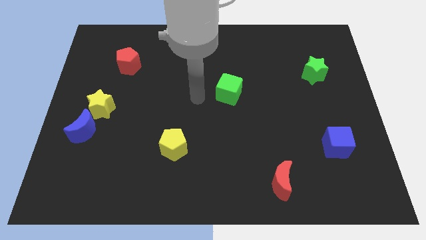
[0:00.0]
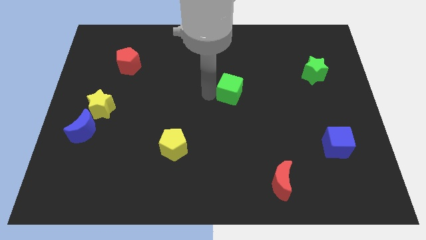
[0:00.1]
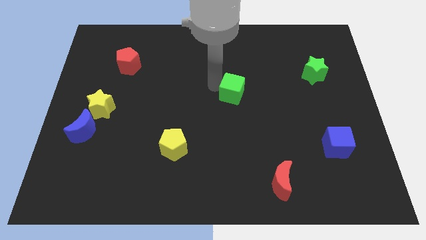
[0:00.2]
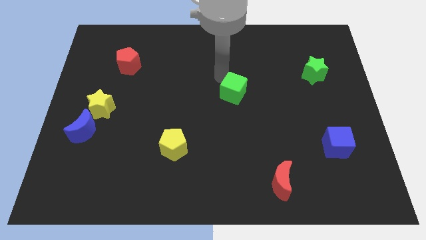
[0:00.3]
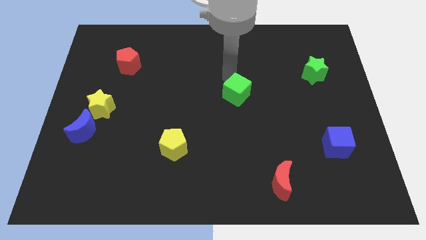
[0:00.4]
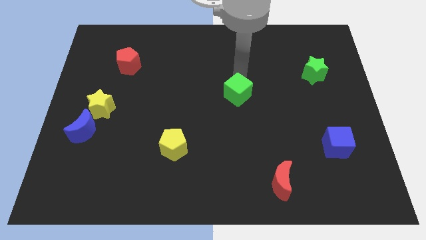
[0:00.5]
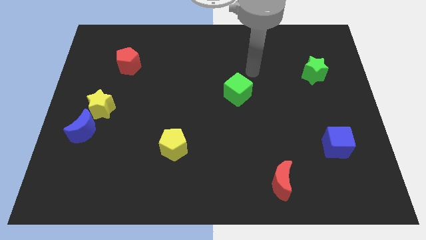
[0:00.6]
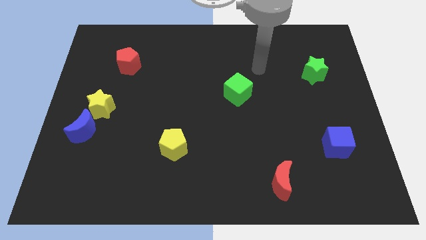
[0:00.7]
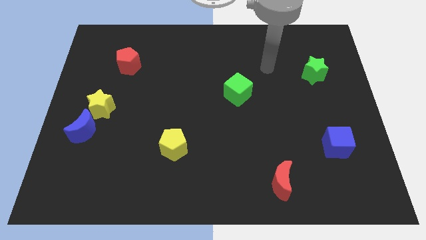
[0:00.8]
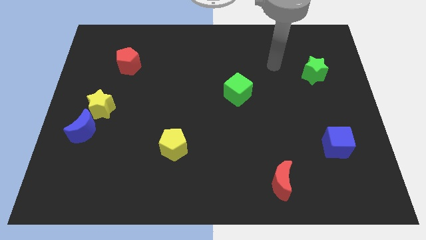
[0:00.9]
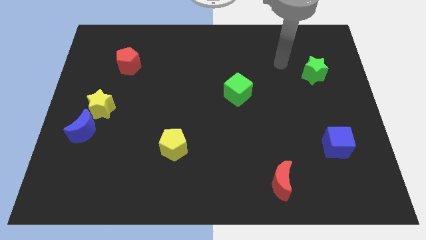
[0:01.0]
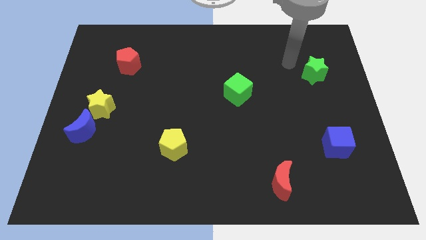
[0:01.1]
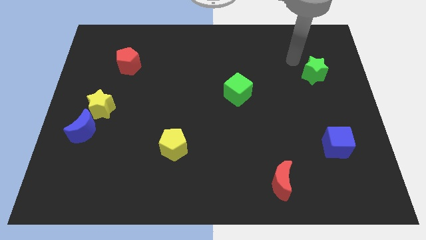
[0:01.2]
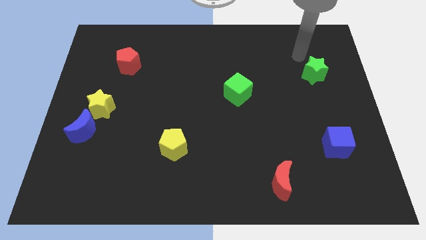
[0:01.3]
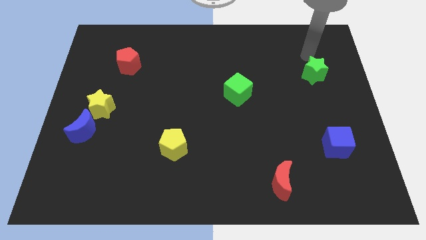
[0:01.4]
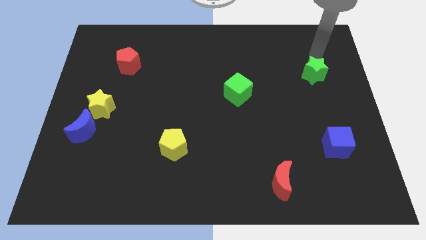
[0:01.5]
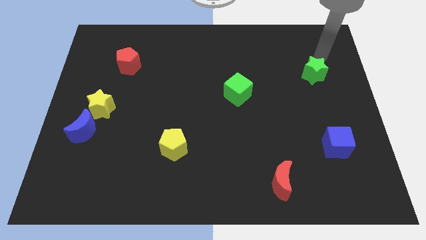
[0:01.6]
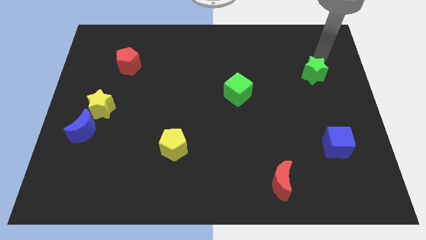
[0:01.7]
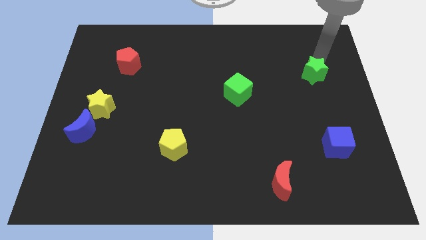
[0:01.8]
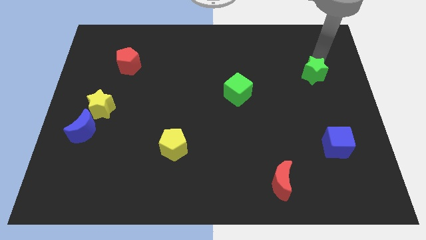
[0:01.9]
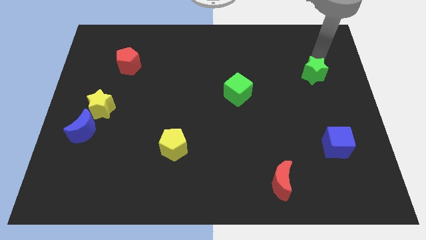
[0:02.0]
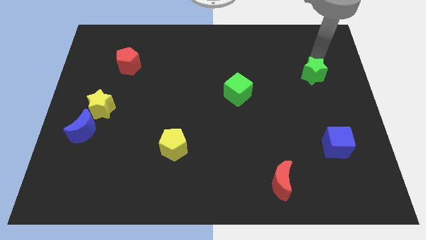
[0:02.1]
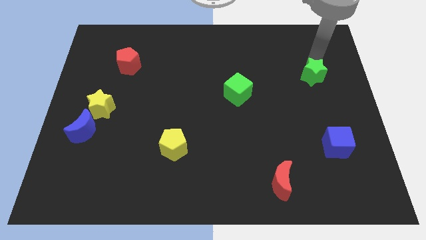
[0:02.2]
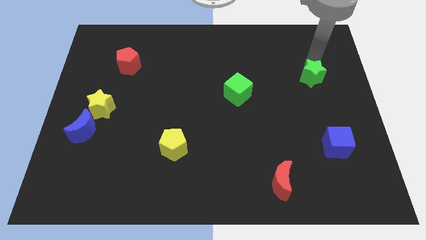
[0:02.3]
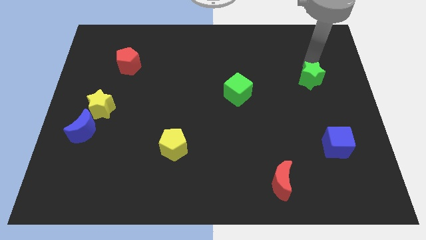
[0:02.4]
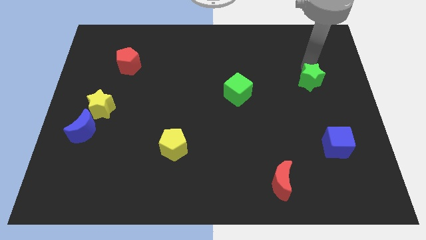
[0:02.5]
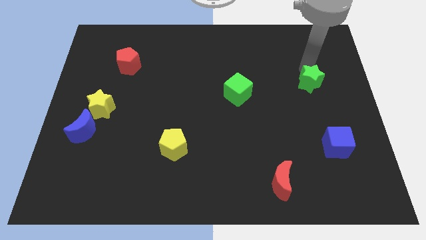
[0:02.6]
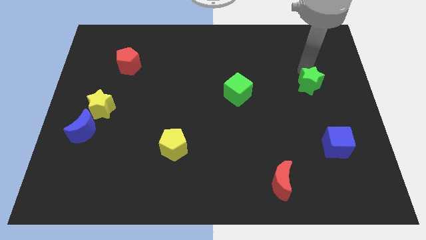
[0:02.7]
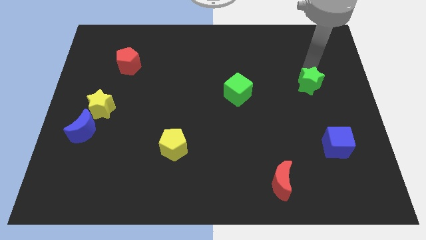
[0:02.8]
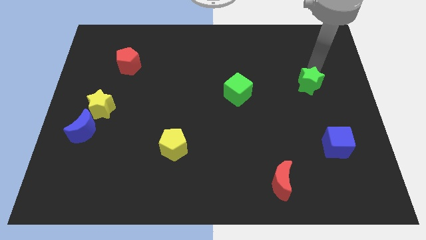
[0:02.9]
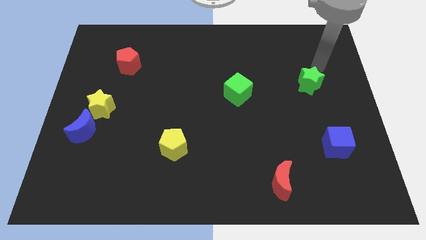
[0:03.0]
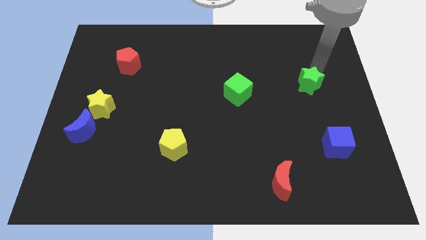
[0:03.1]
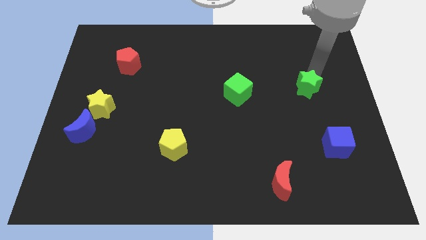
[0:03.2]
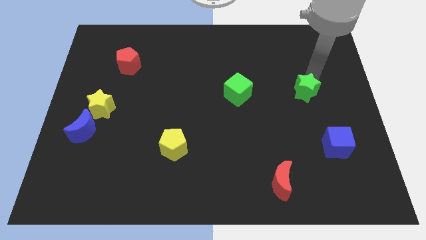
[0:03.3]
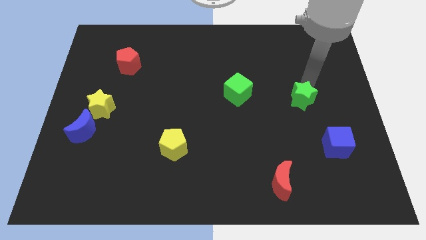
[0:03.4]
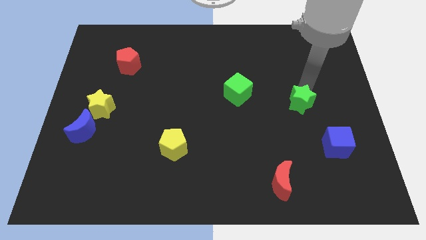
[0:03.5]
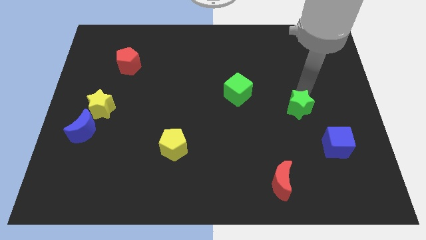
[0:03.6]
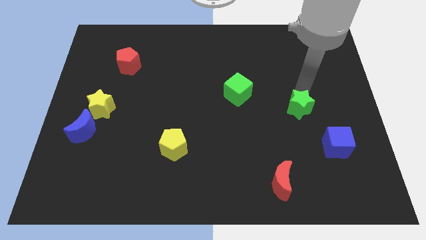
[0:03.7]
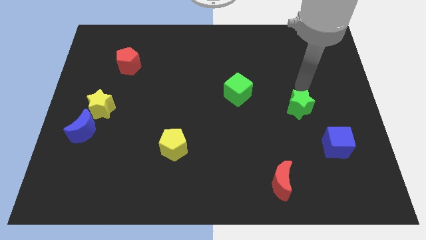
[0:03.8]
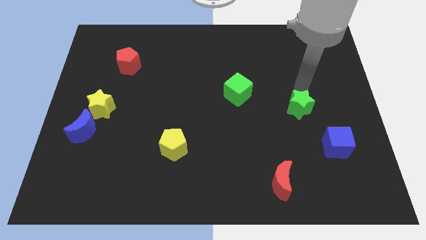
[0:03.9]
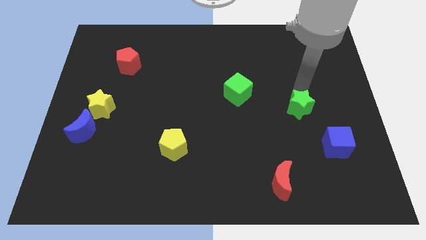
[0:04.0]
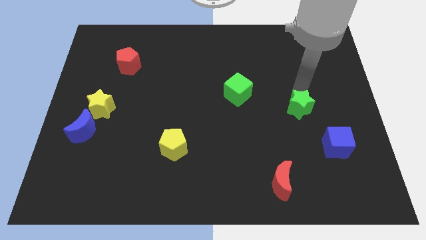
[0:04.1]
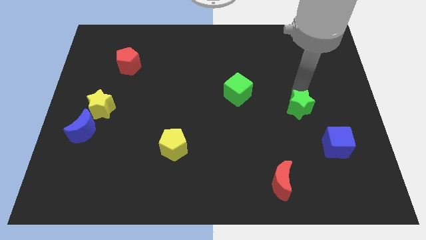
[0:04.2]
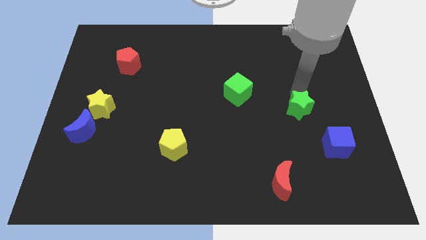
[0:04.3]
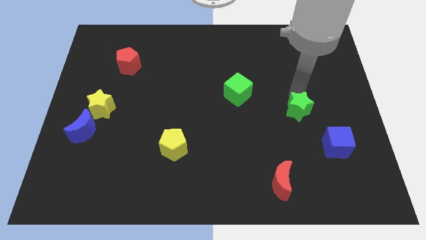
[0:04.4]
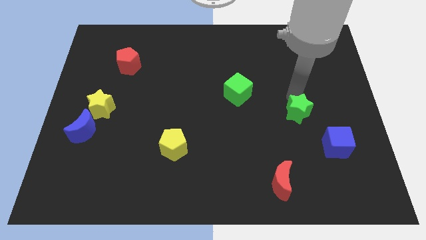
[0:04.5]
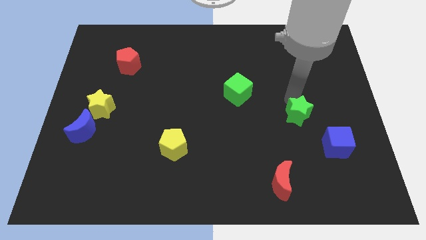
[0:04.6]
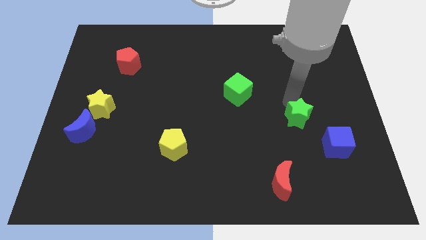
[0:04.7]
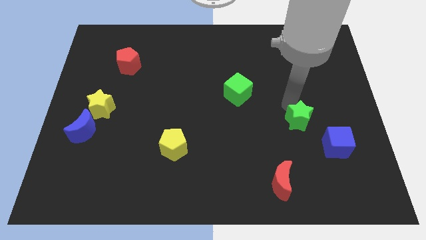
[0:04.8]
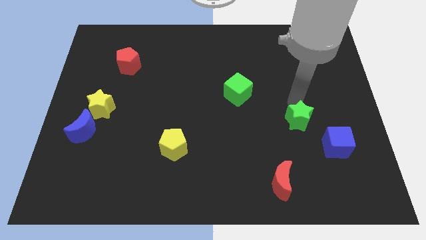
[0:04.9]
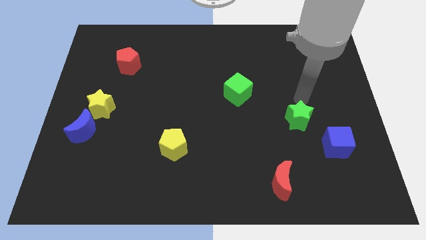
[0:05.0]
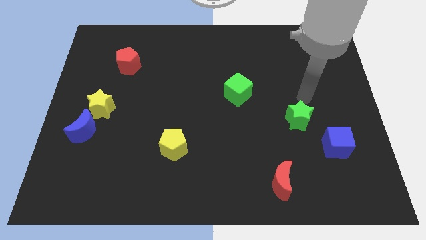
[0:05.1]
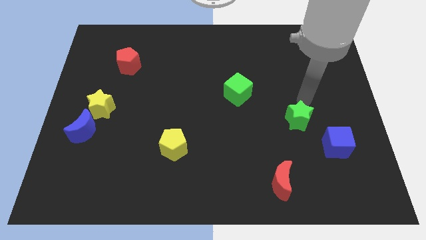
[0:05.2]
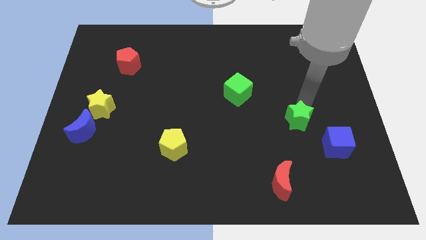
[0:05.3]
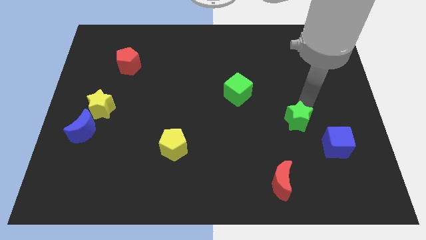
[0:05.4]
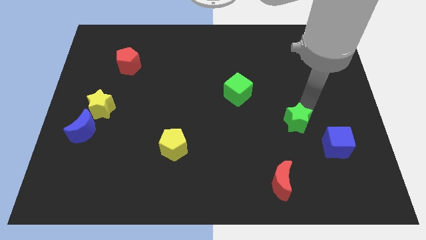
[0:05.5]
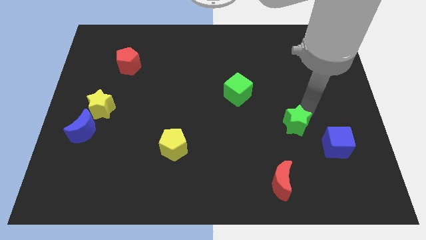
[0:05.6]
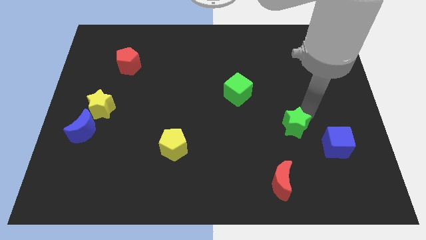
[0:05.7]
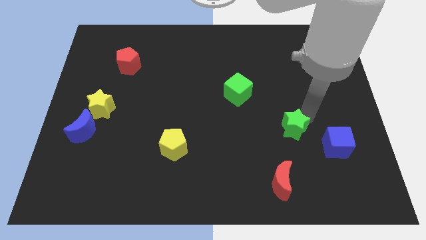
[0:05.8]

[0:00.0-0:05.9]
push the green star just left of the blue cube

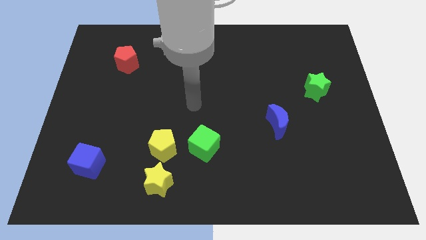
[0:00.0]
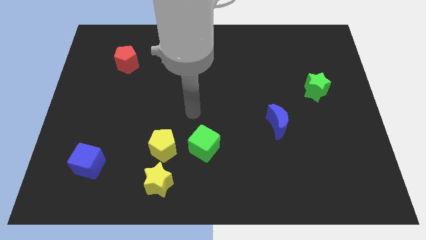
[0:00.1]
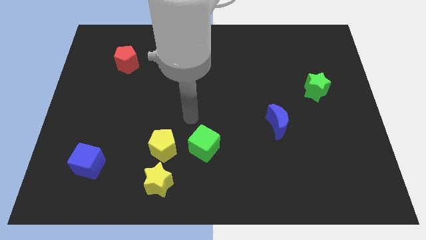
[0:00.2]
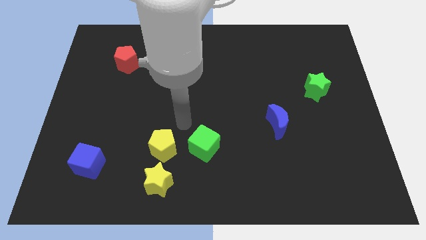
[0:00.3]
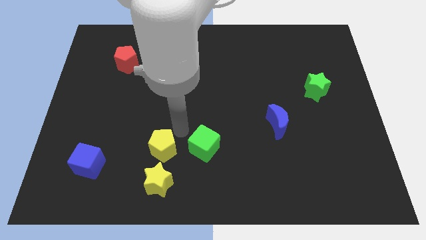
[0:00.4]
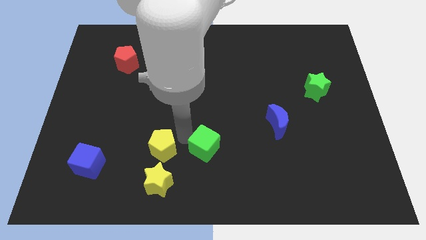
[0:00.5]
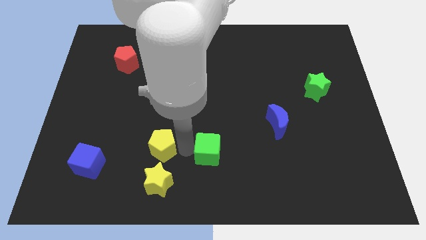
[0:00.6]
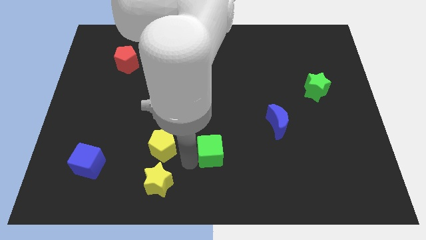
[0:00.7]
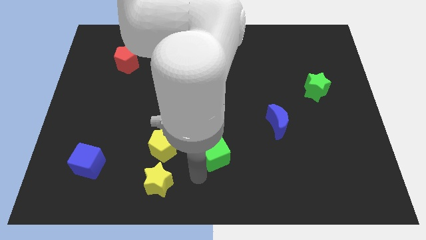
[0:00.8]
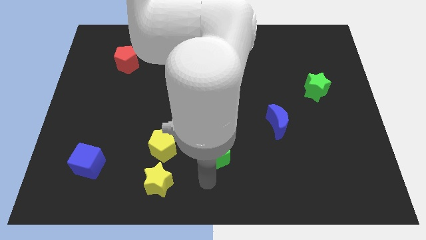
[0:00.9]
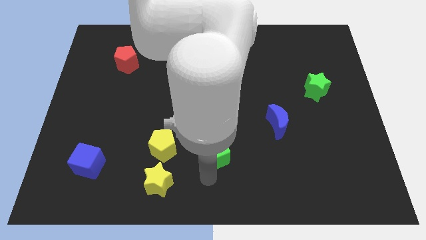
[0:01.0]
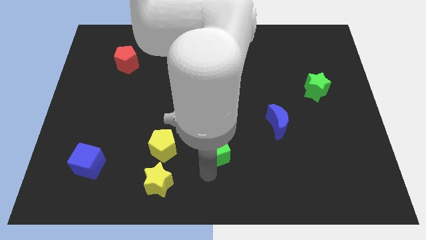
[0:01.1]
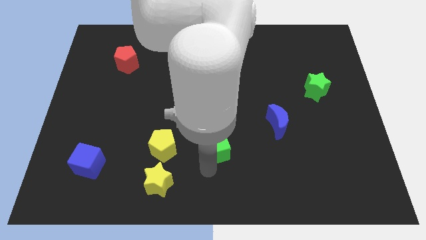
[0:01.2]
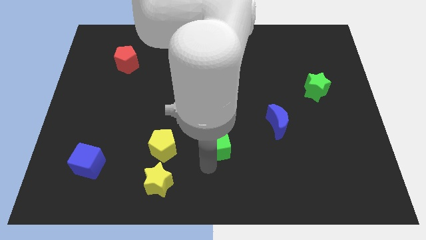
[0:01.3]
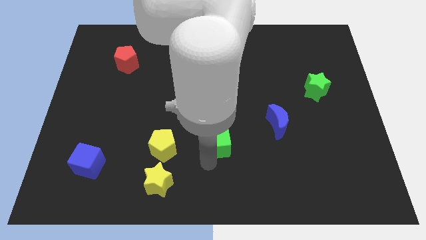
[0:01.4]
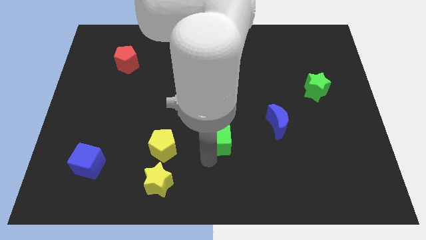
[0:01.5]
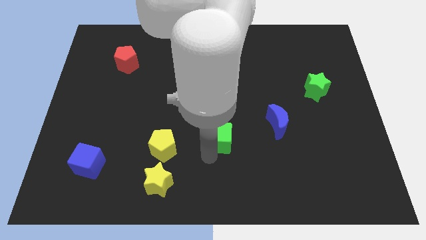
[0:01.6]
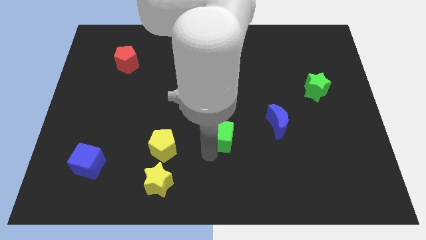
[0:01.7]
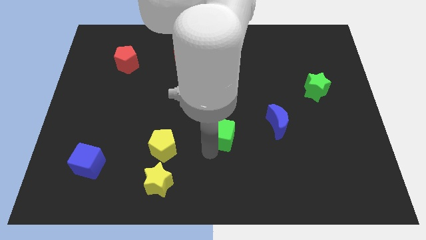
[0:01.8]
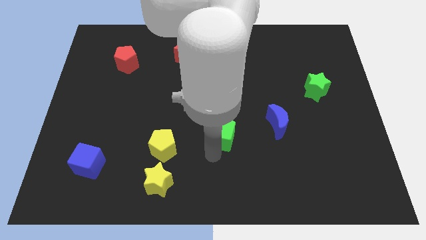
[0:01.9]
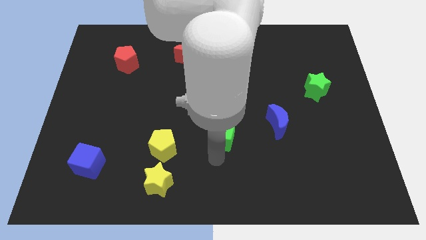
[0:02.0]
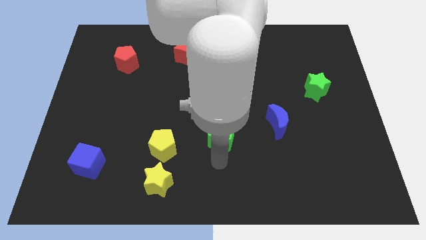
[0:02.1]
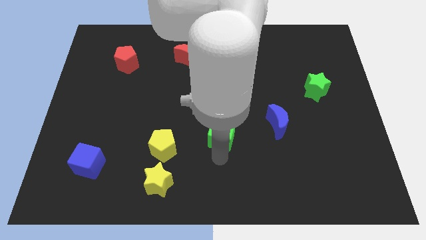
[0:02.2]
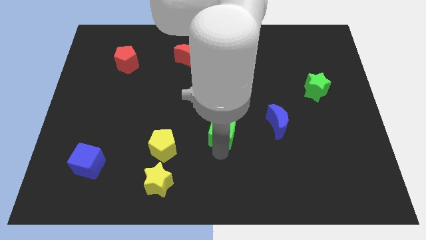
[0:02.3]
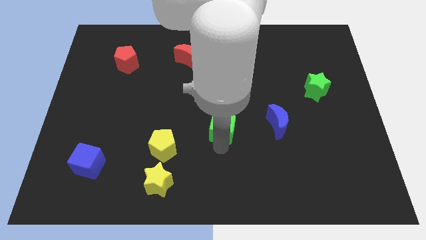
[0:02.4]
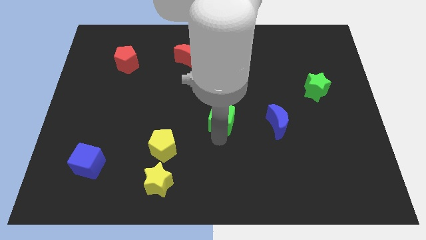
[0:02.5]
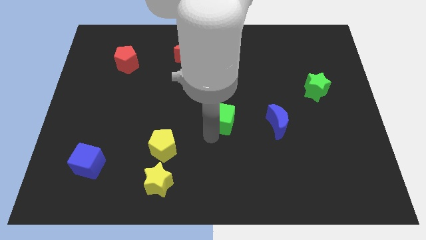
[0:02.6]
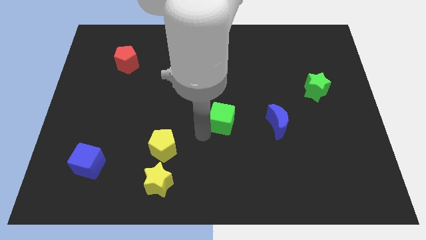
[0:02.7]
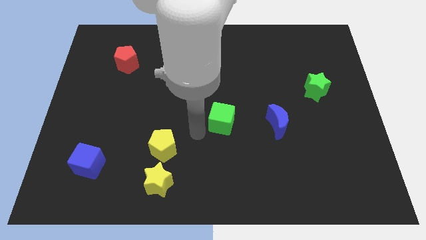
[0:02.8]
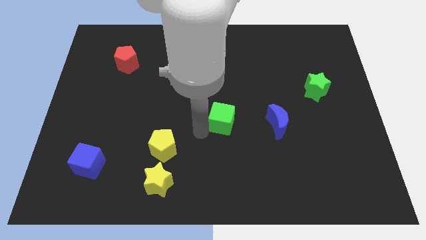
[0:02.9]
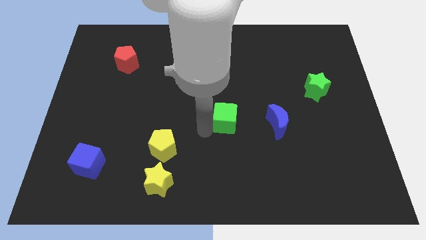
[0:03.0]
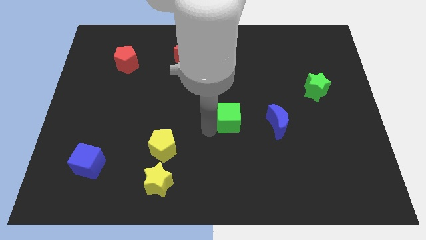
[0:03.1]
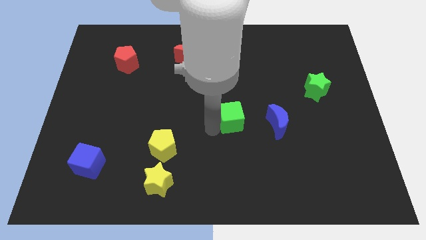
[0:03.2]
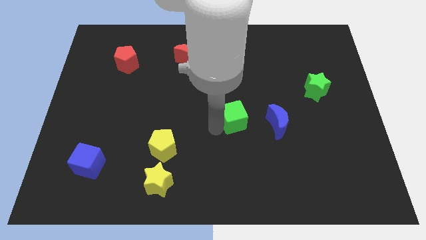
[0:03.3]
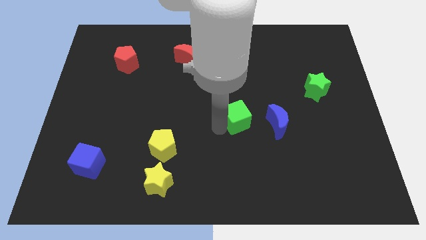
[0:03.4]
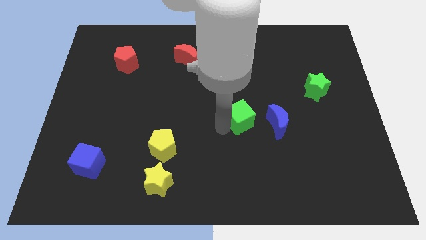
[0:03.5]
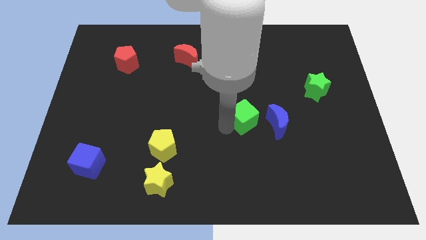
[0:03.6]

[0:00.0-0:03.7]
slide the green cube diagonally up and to the left of the blue moon
